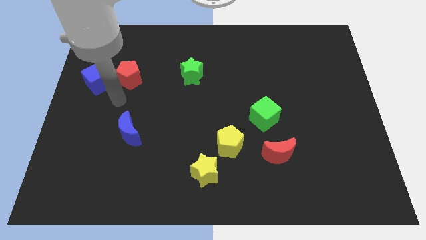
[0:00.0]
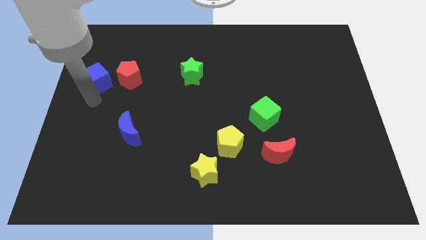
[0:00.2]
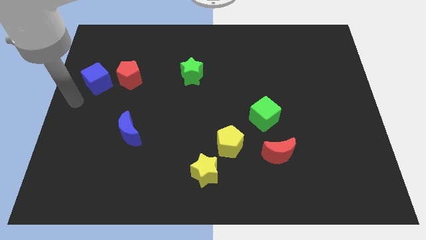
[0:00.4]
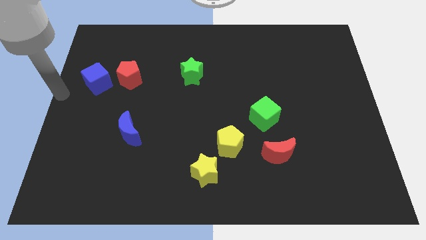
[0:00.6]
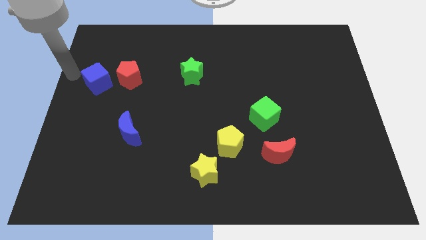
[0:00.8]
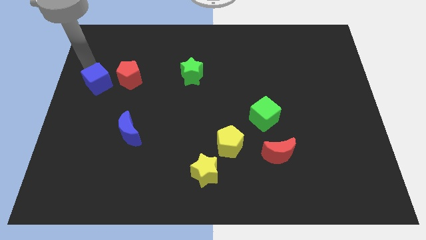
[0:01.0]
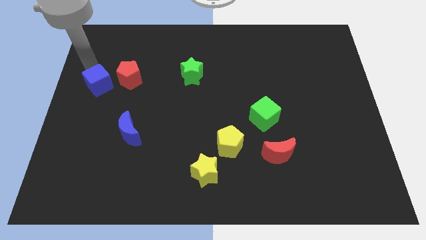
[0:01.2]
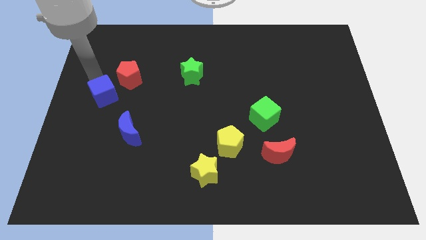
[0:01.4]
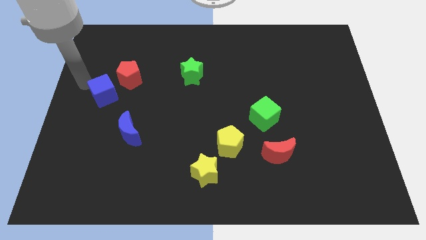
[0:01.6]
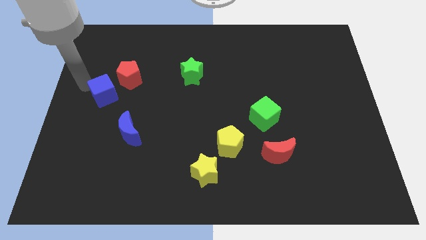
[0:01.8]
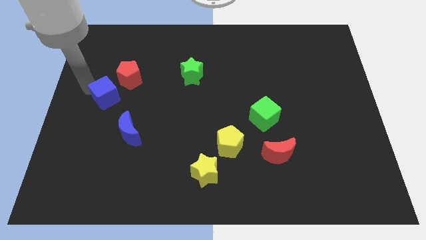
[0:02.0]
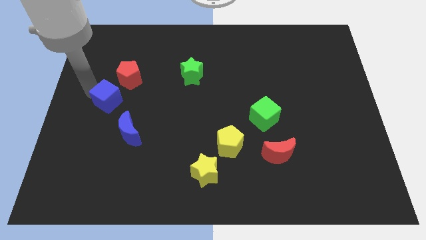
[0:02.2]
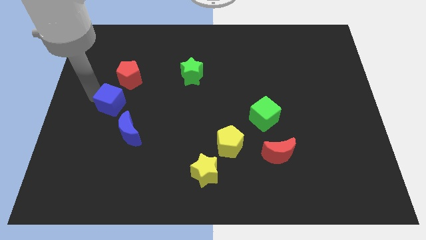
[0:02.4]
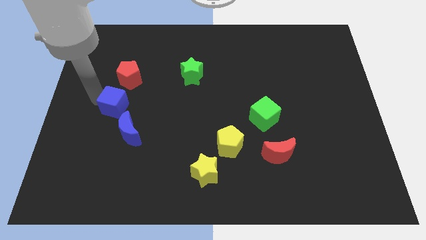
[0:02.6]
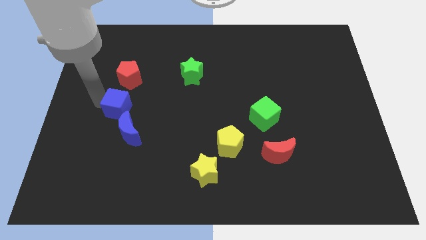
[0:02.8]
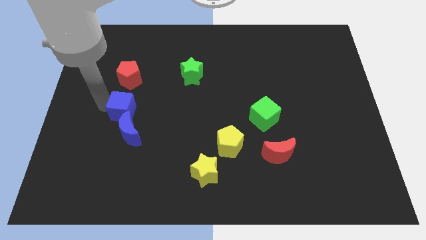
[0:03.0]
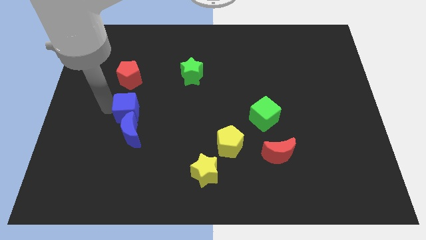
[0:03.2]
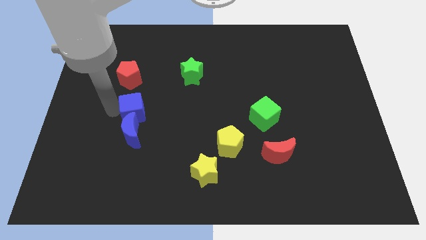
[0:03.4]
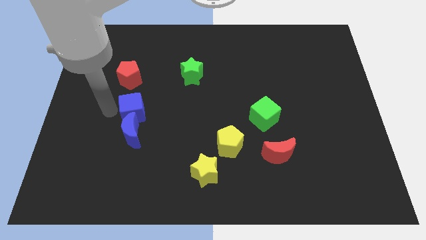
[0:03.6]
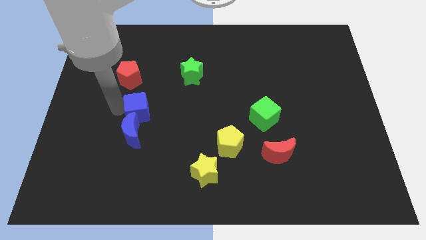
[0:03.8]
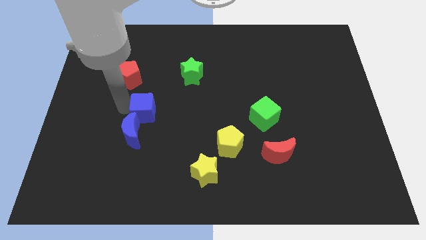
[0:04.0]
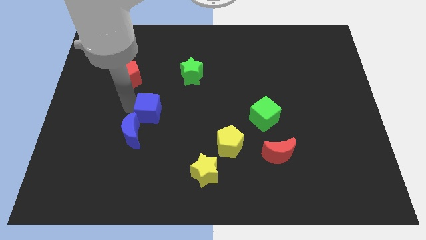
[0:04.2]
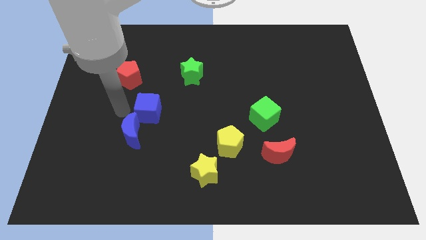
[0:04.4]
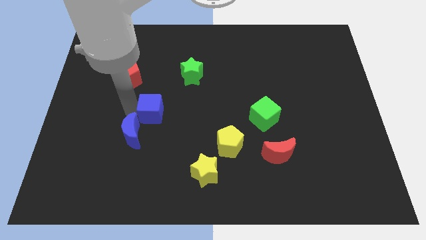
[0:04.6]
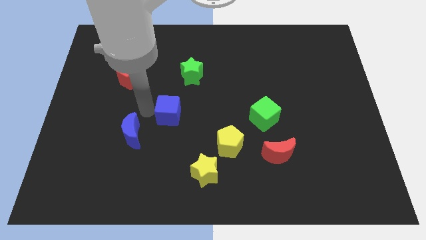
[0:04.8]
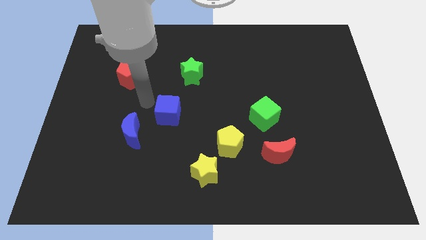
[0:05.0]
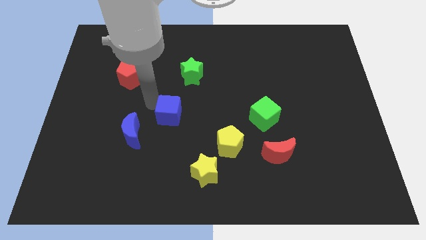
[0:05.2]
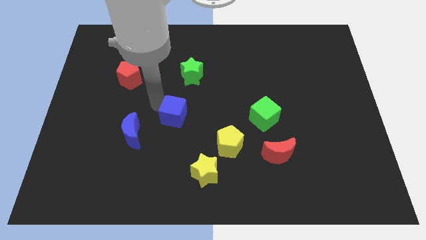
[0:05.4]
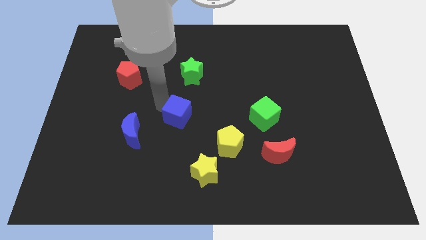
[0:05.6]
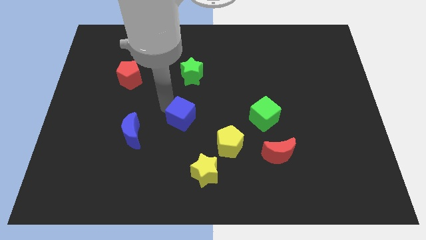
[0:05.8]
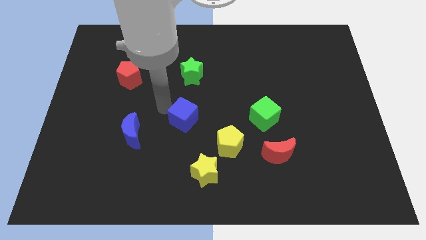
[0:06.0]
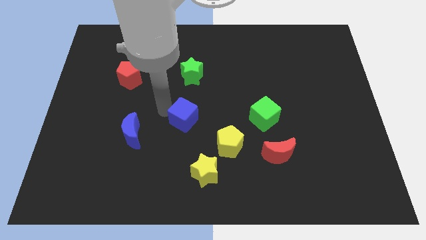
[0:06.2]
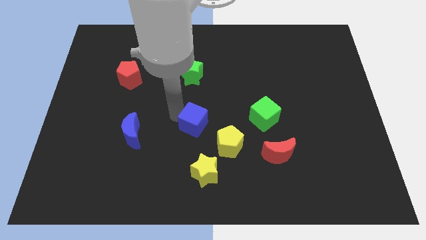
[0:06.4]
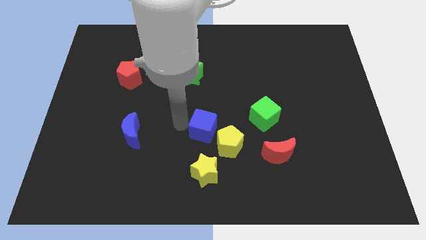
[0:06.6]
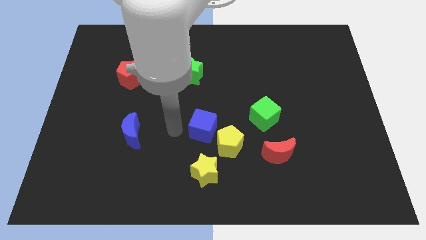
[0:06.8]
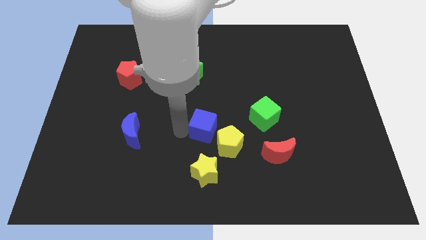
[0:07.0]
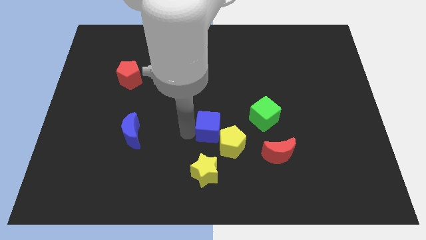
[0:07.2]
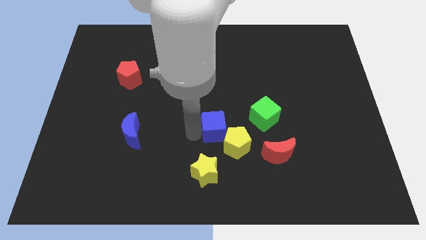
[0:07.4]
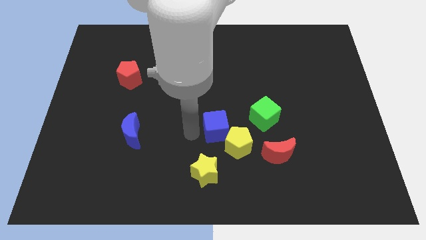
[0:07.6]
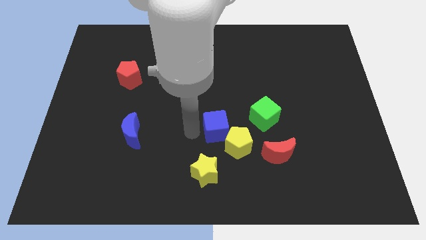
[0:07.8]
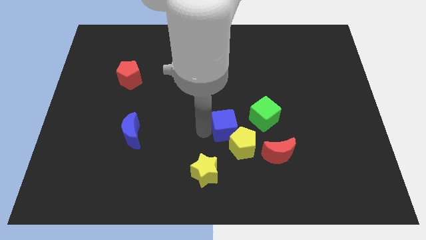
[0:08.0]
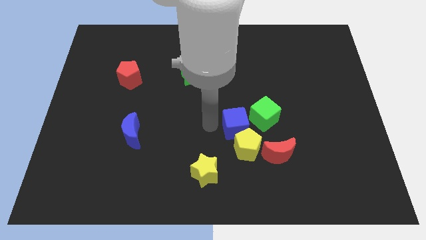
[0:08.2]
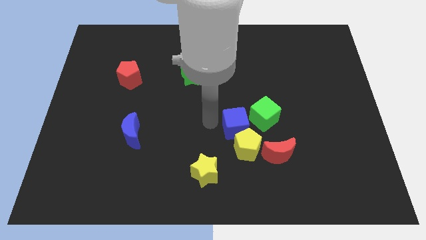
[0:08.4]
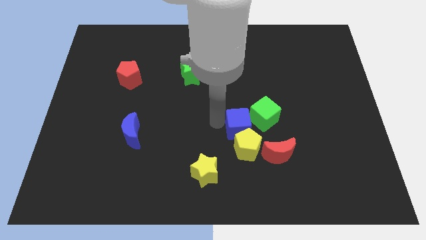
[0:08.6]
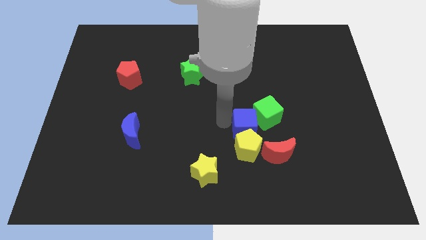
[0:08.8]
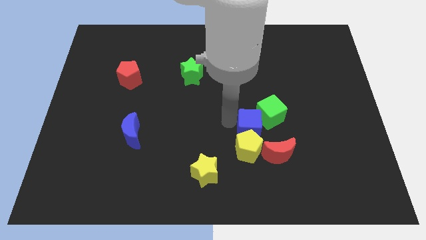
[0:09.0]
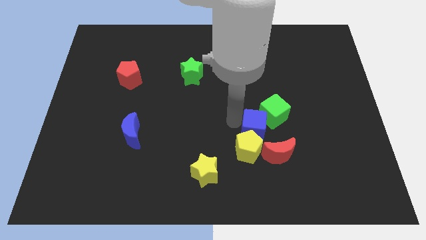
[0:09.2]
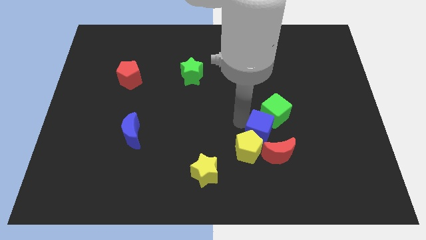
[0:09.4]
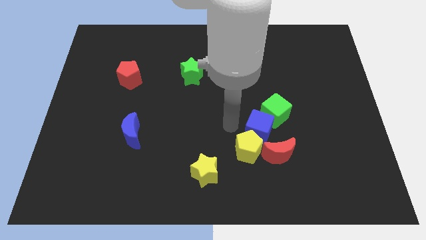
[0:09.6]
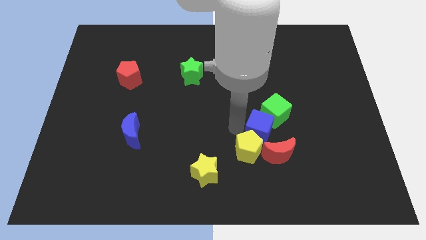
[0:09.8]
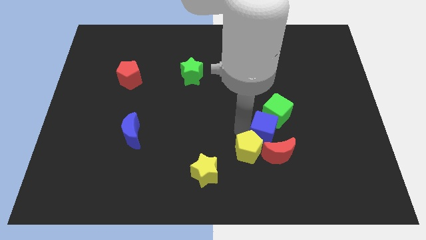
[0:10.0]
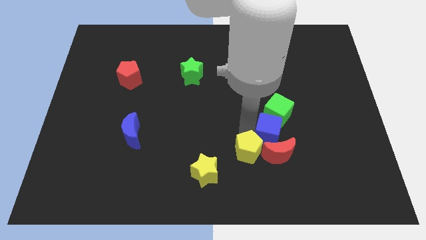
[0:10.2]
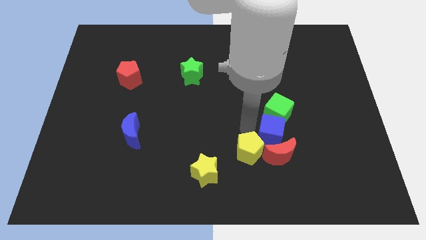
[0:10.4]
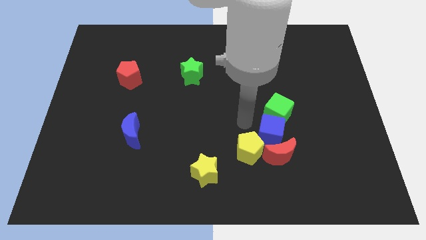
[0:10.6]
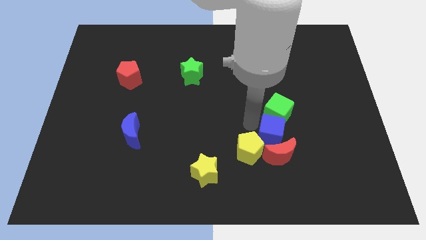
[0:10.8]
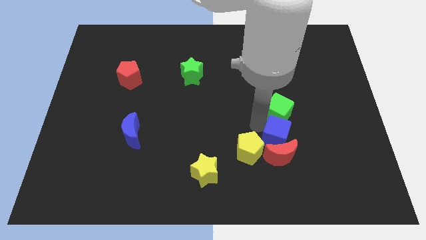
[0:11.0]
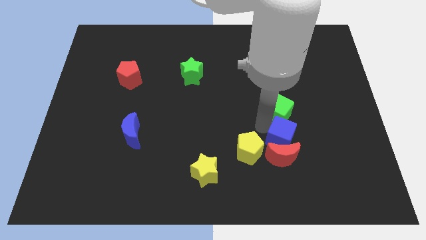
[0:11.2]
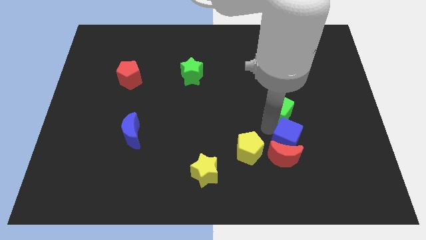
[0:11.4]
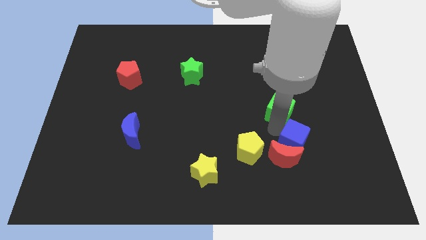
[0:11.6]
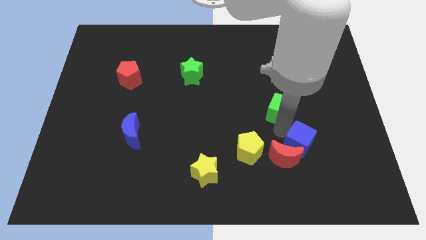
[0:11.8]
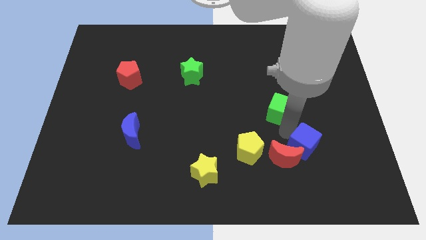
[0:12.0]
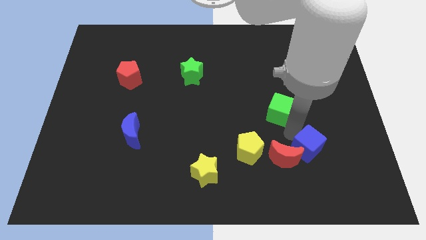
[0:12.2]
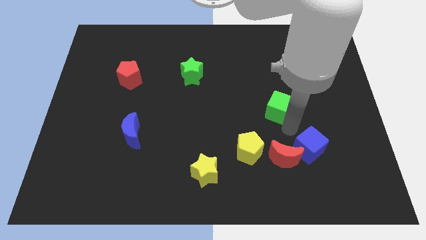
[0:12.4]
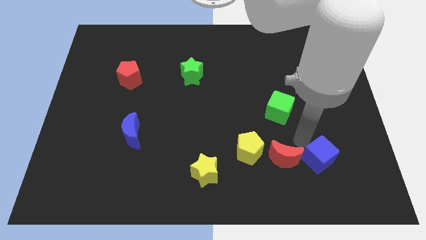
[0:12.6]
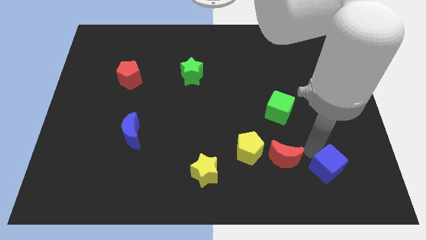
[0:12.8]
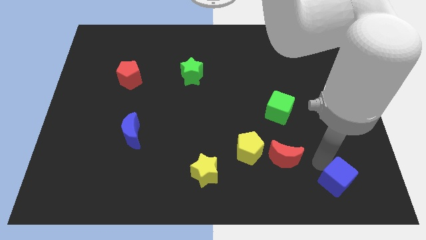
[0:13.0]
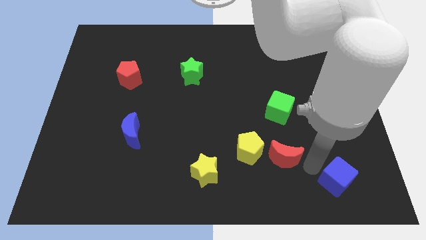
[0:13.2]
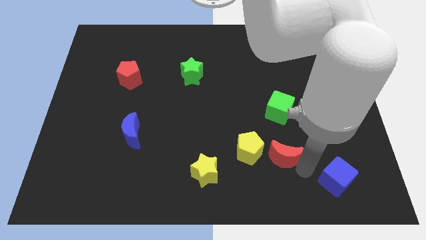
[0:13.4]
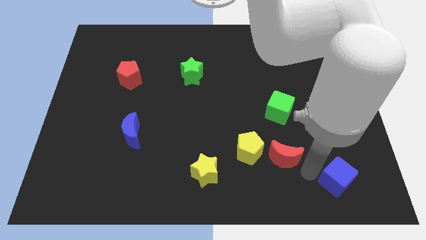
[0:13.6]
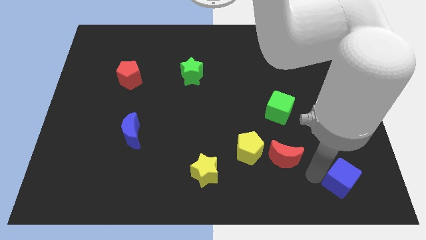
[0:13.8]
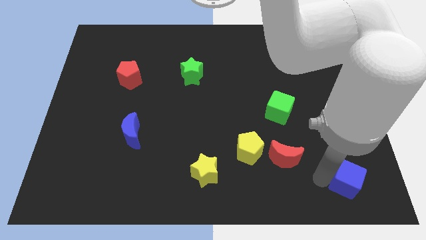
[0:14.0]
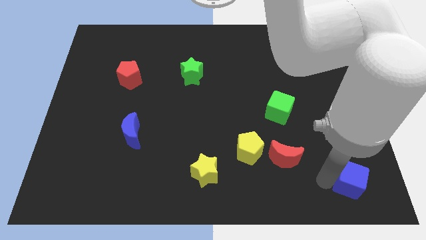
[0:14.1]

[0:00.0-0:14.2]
push the blue cube to the lower right corner
